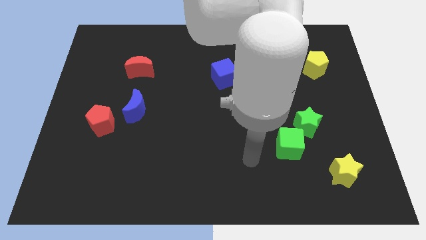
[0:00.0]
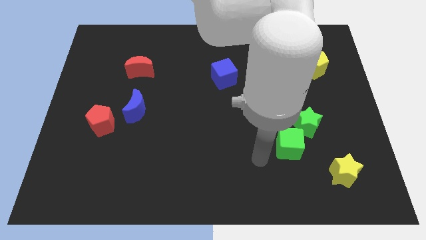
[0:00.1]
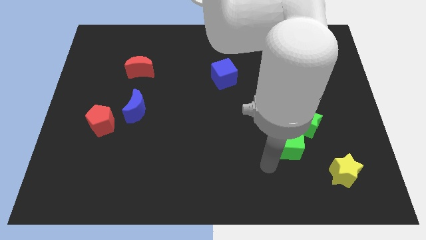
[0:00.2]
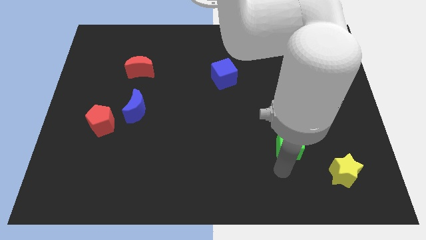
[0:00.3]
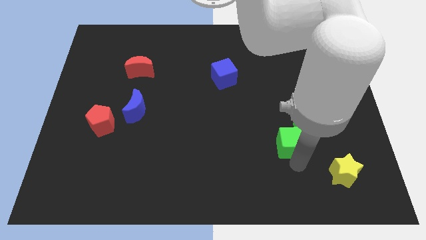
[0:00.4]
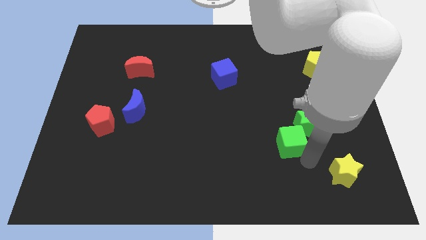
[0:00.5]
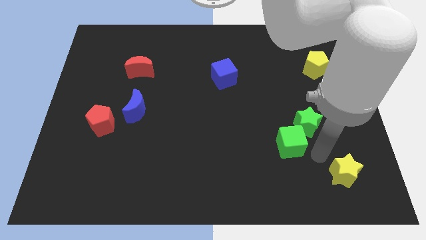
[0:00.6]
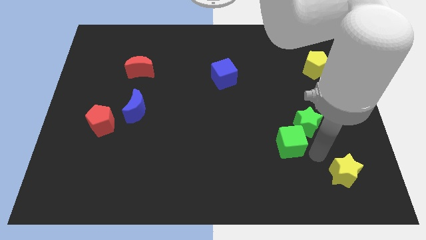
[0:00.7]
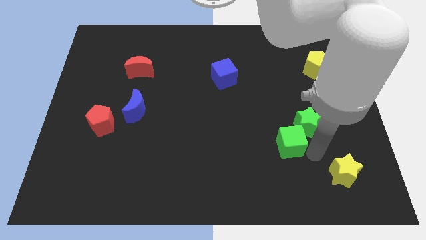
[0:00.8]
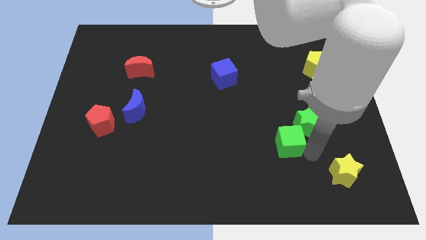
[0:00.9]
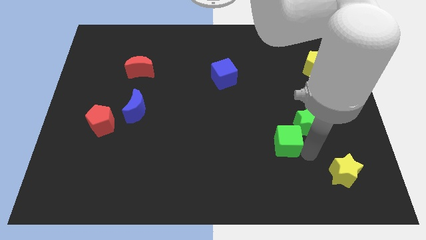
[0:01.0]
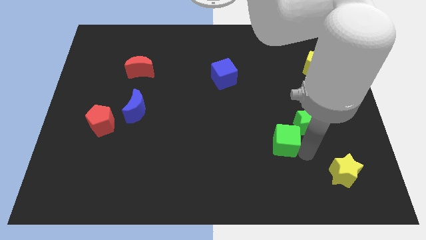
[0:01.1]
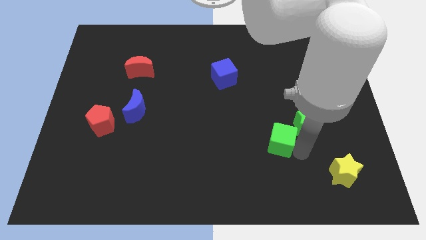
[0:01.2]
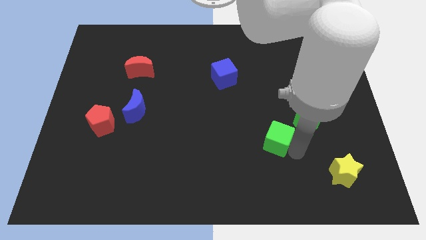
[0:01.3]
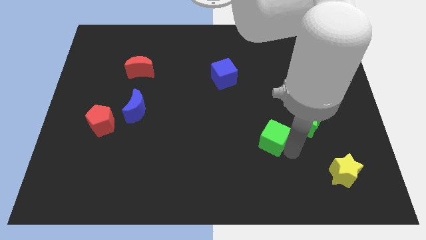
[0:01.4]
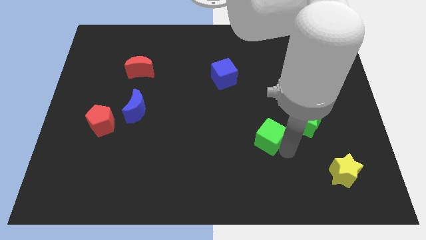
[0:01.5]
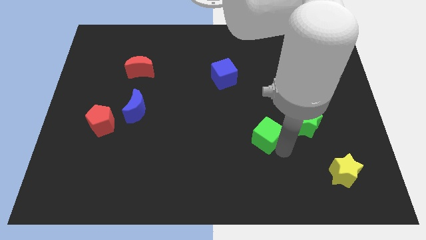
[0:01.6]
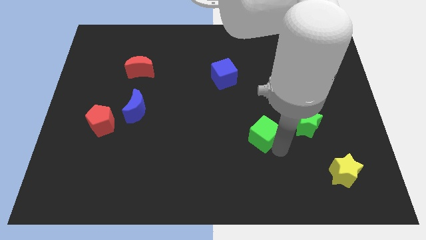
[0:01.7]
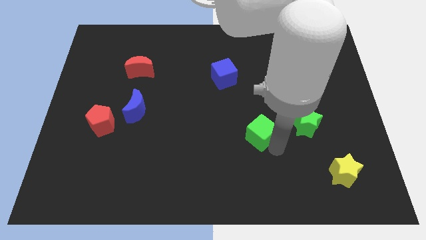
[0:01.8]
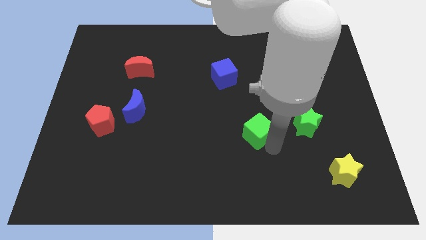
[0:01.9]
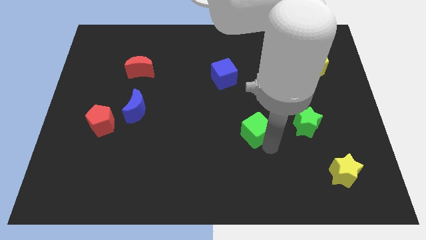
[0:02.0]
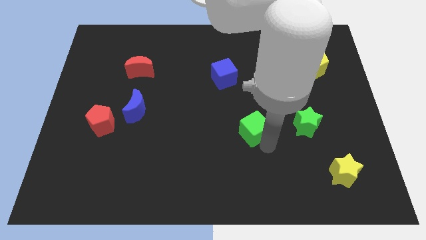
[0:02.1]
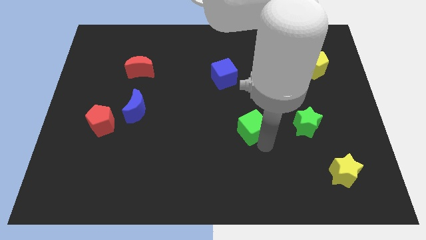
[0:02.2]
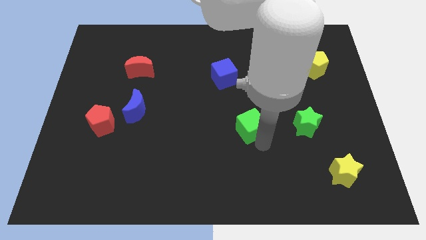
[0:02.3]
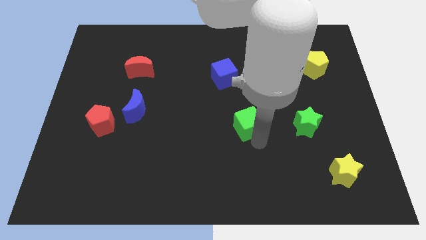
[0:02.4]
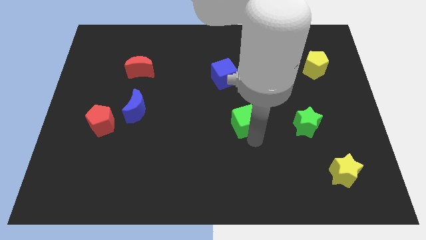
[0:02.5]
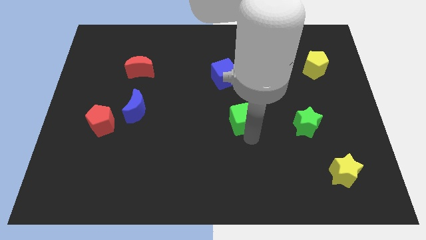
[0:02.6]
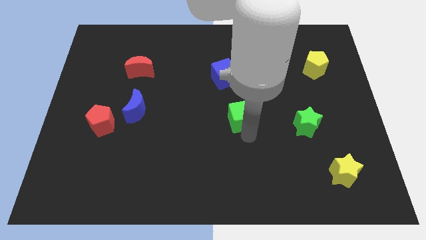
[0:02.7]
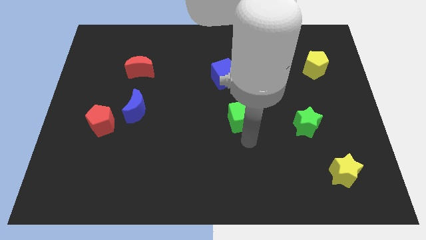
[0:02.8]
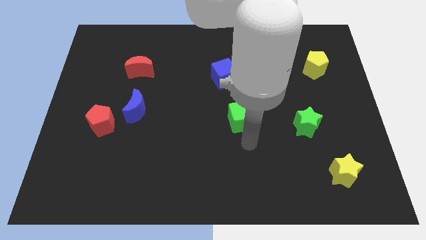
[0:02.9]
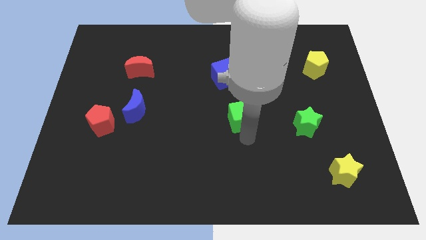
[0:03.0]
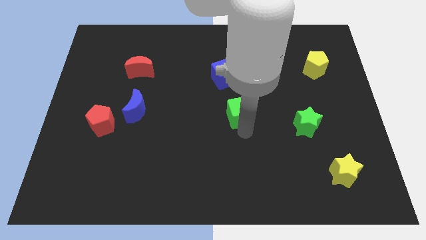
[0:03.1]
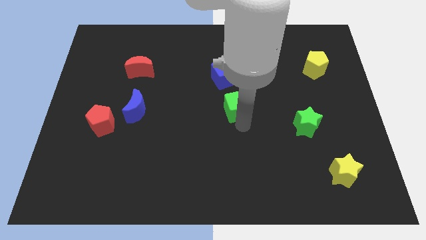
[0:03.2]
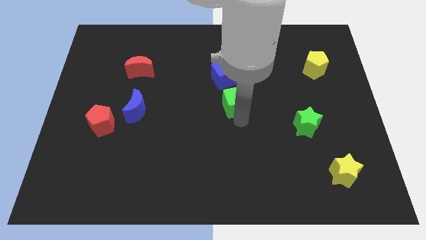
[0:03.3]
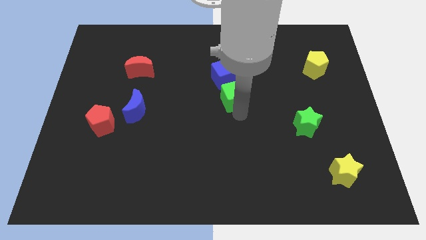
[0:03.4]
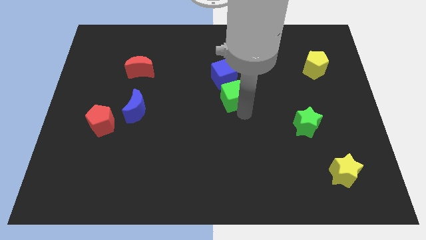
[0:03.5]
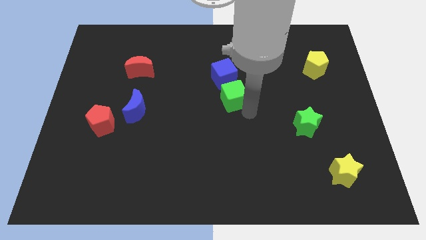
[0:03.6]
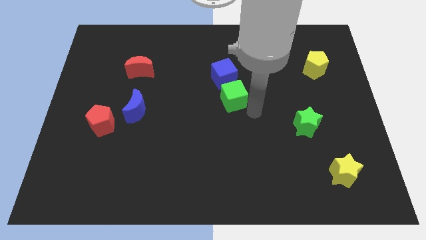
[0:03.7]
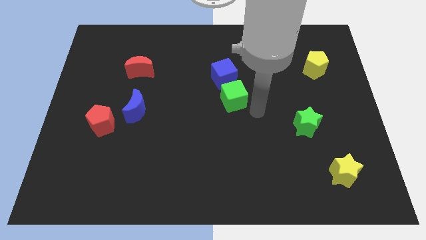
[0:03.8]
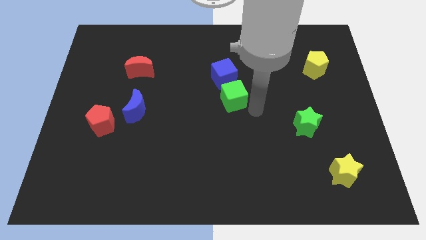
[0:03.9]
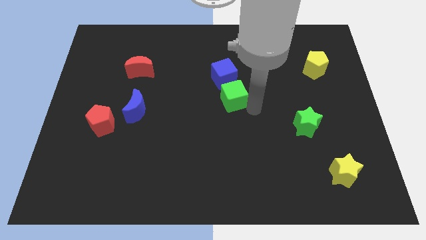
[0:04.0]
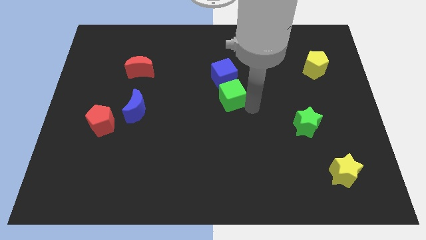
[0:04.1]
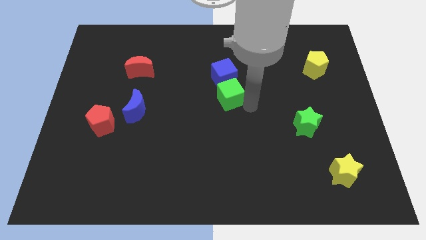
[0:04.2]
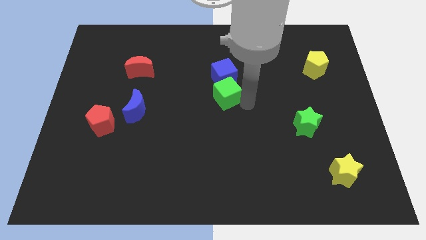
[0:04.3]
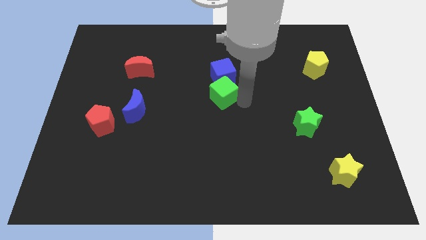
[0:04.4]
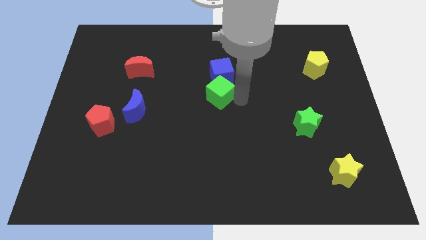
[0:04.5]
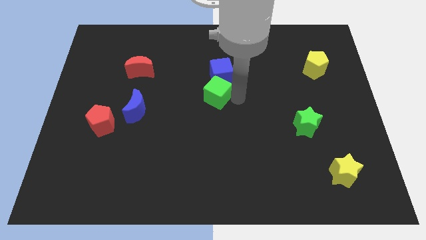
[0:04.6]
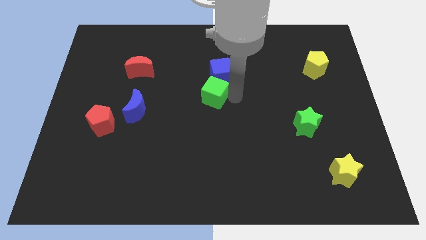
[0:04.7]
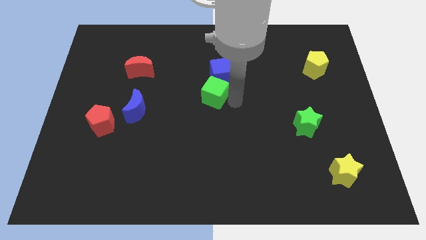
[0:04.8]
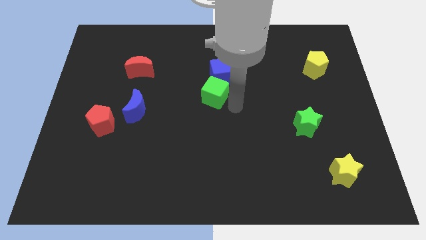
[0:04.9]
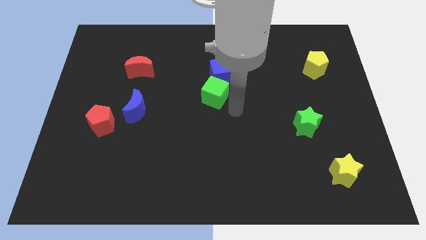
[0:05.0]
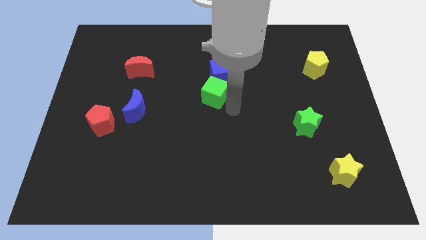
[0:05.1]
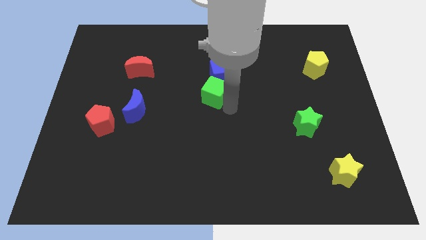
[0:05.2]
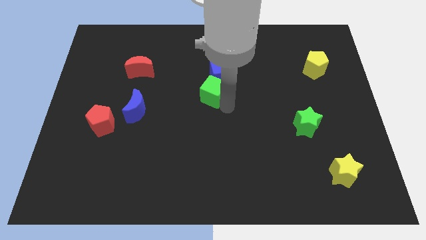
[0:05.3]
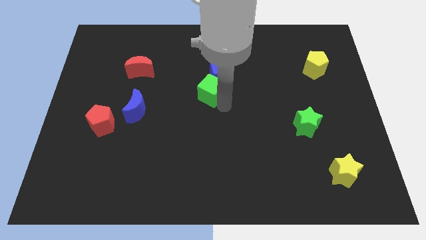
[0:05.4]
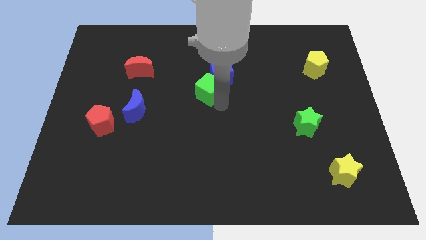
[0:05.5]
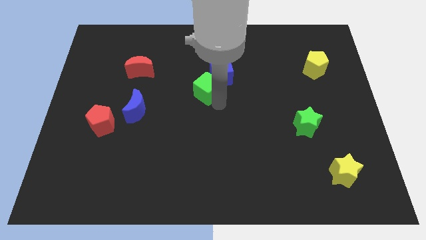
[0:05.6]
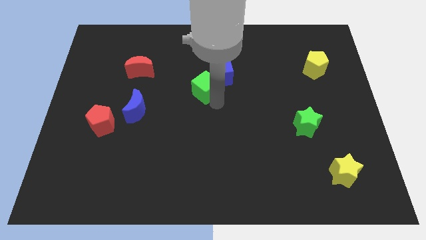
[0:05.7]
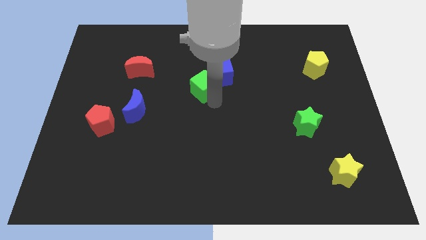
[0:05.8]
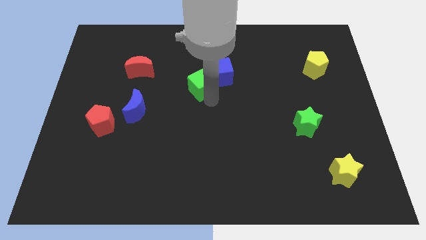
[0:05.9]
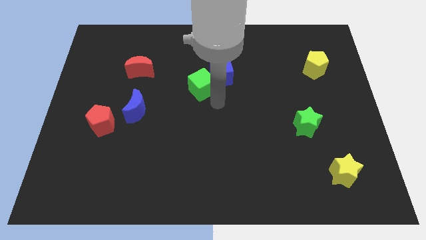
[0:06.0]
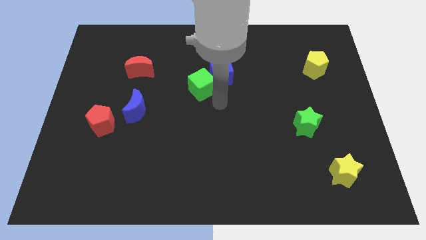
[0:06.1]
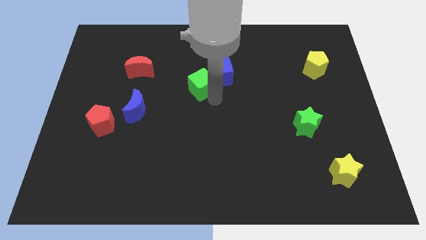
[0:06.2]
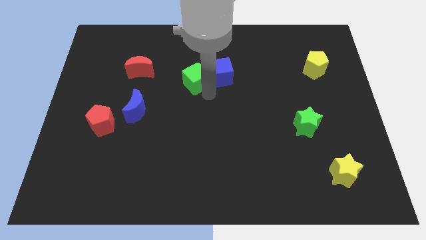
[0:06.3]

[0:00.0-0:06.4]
put the green cube to the right side of the red moon
